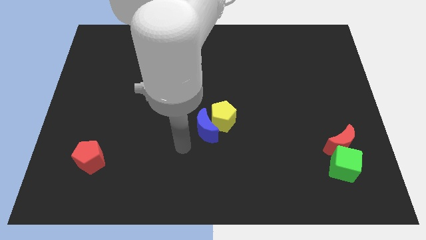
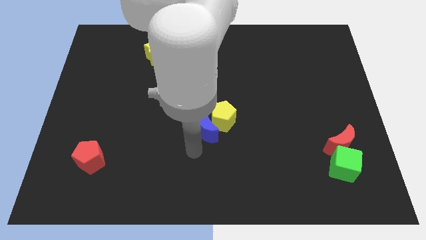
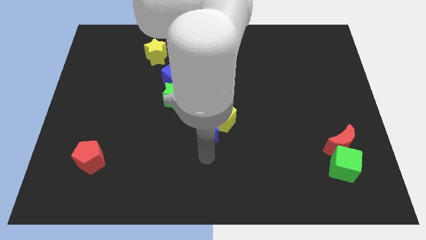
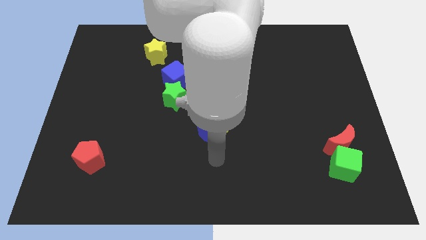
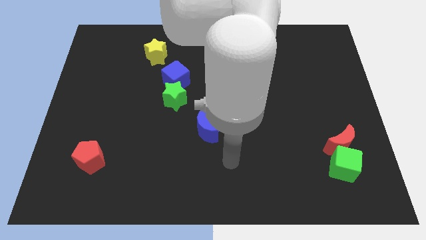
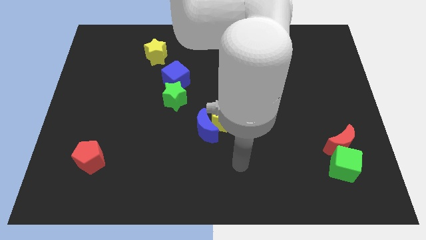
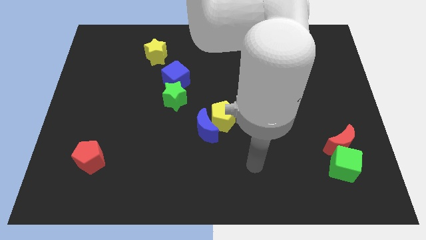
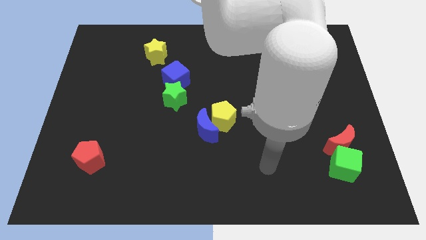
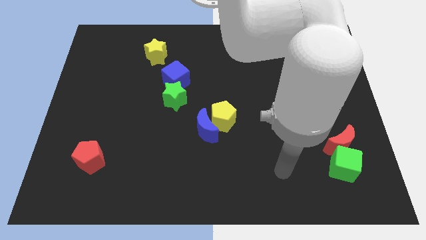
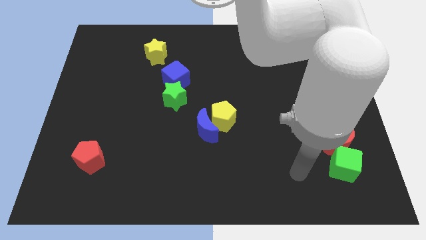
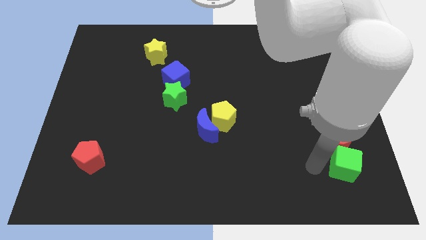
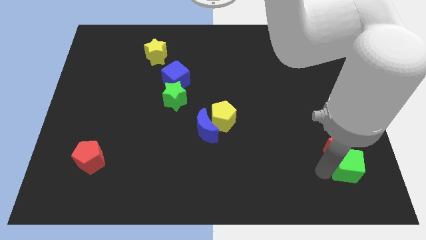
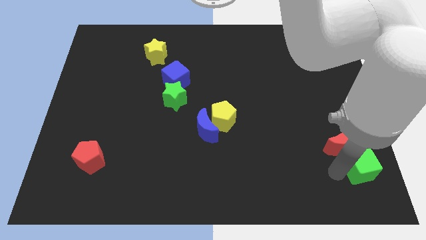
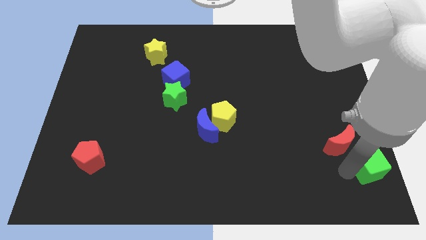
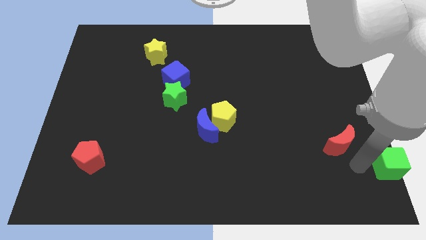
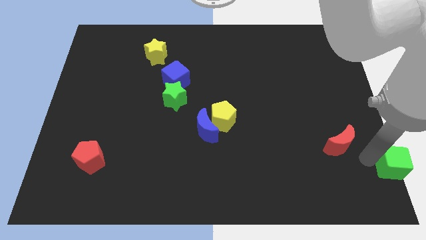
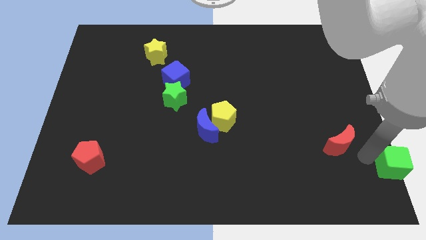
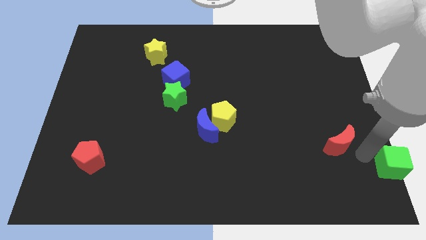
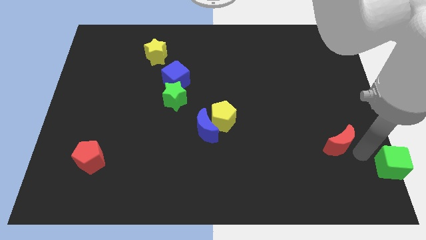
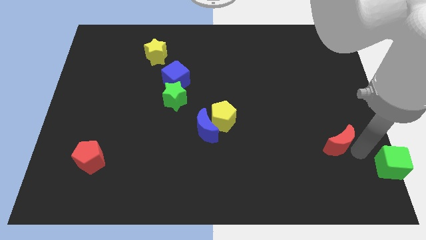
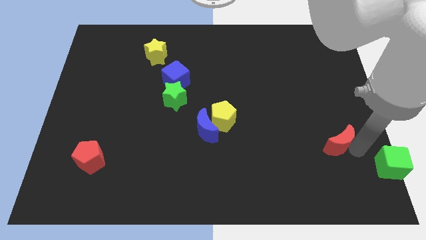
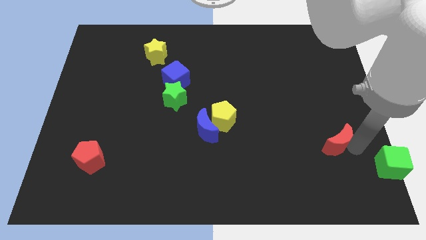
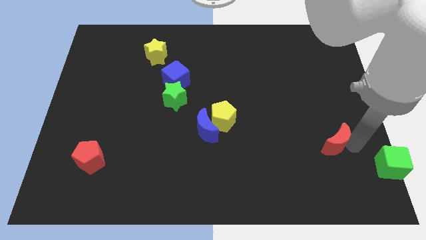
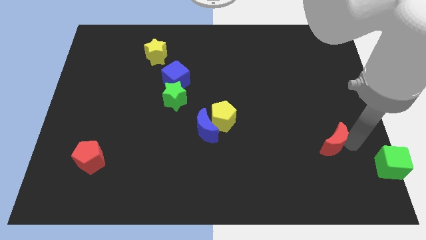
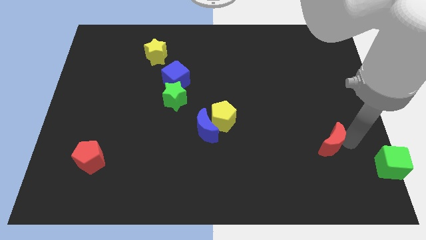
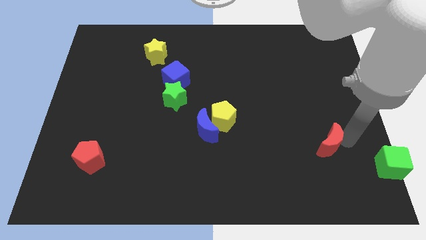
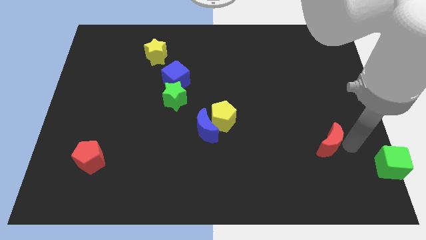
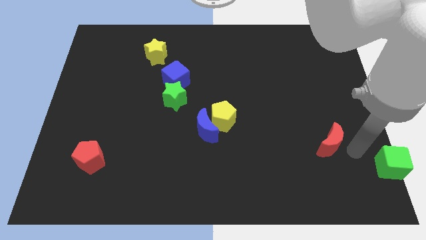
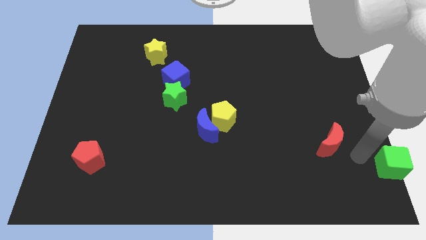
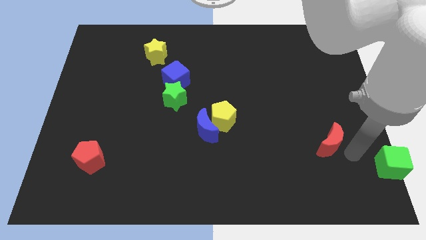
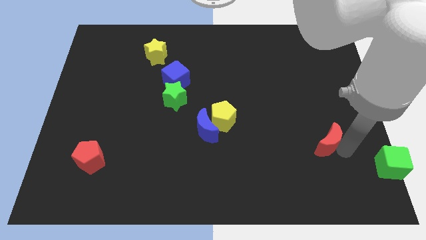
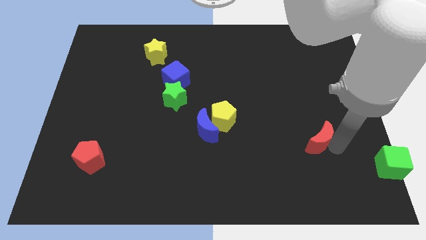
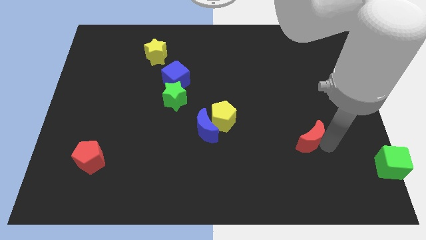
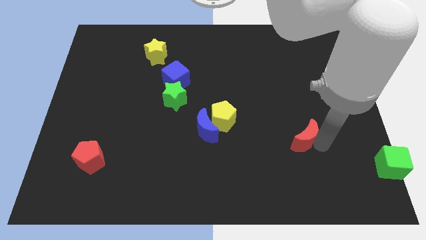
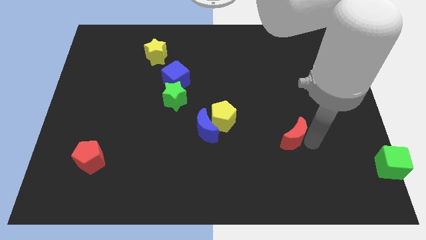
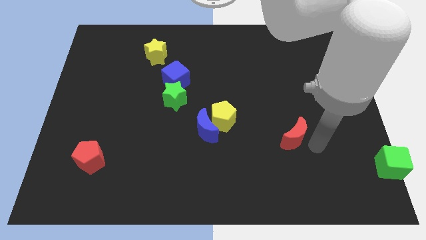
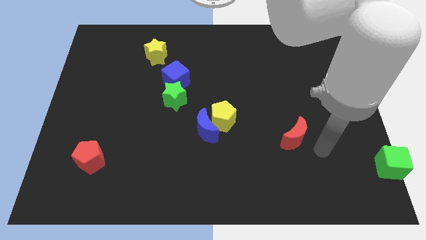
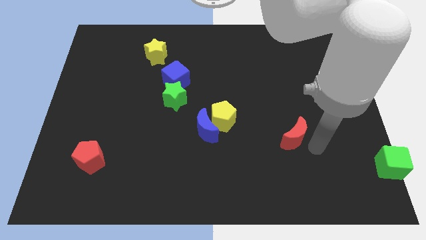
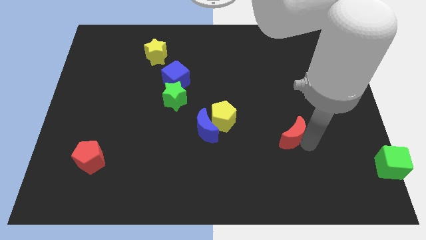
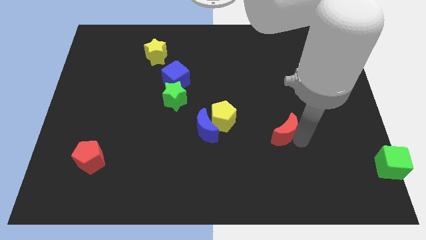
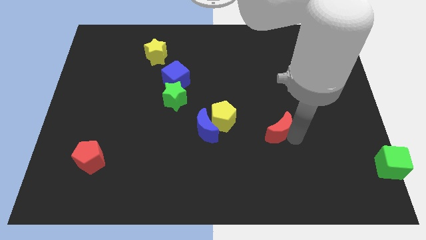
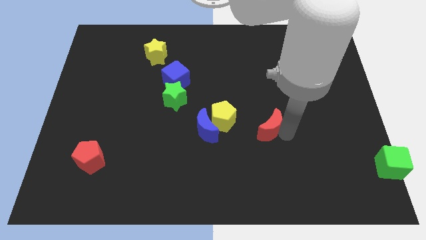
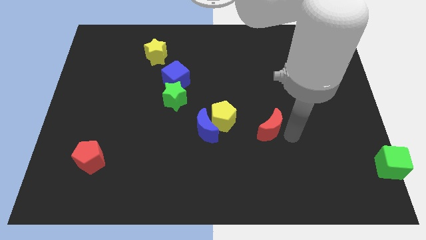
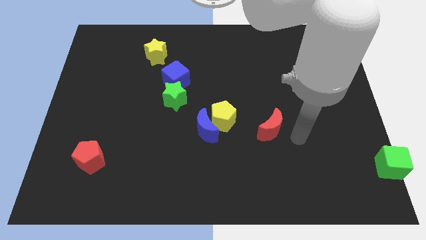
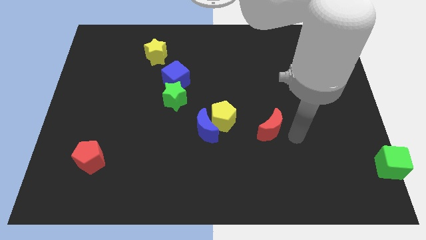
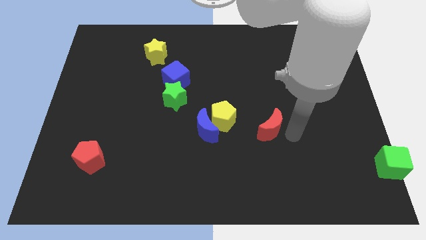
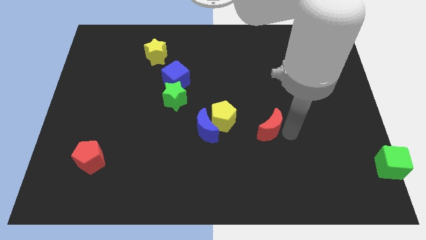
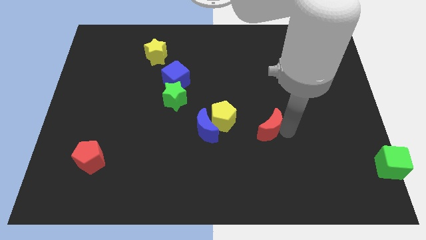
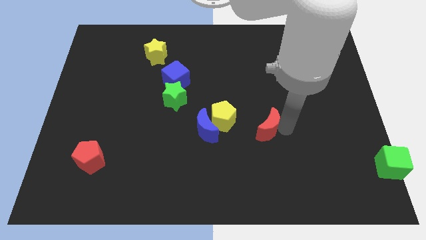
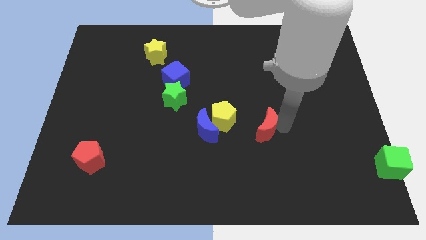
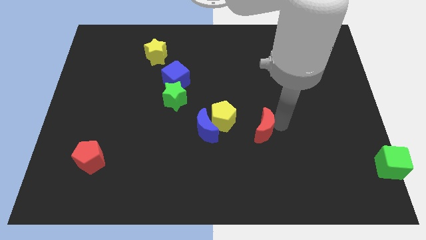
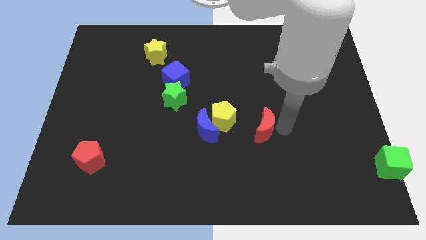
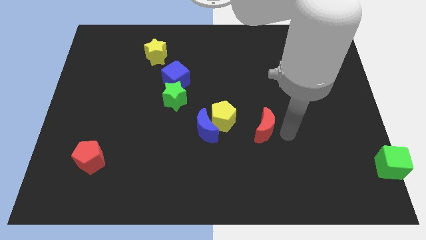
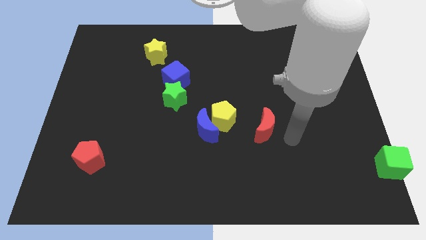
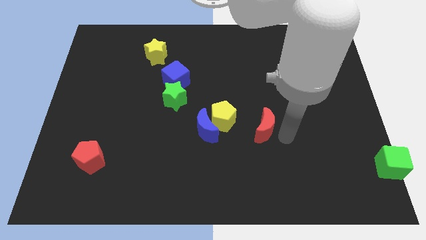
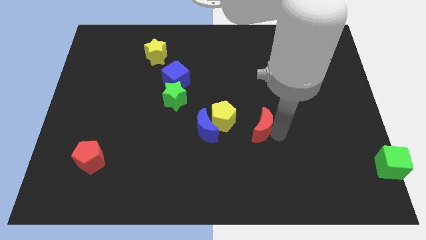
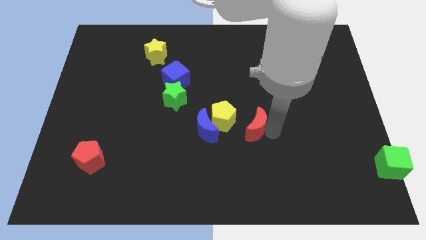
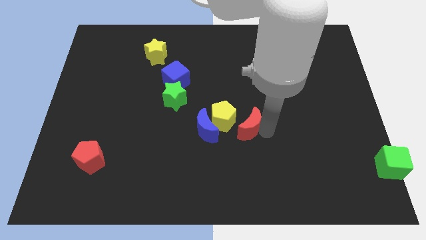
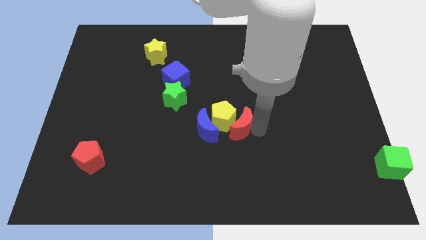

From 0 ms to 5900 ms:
slide the red moon towards the yellow pentagon
